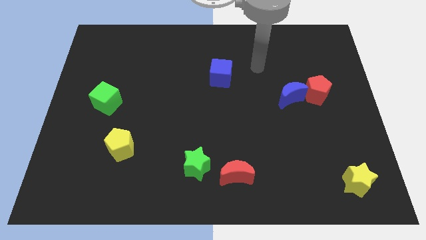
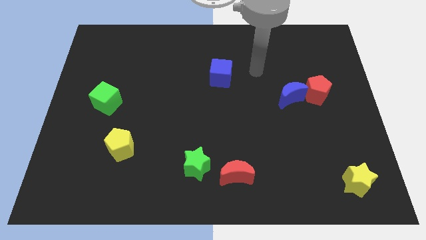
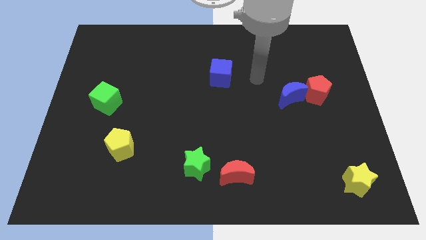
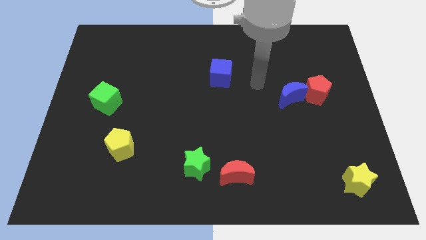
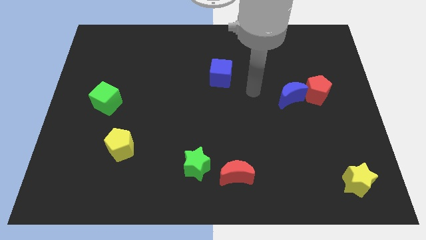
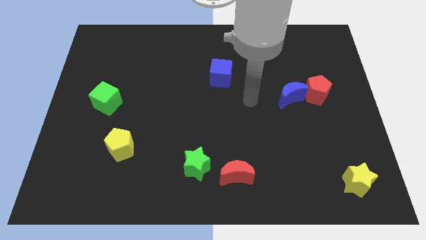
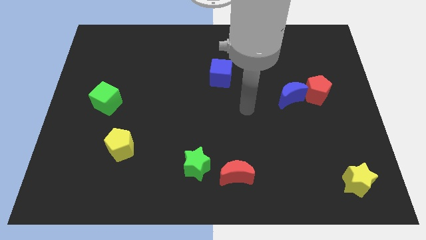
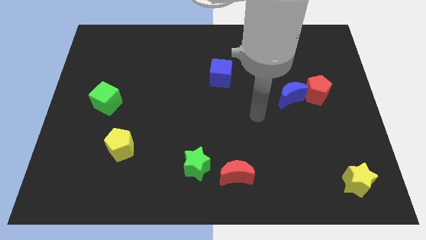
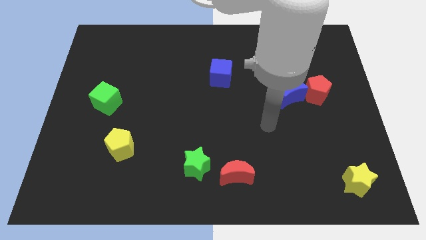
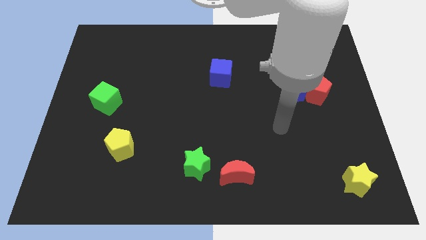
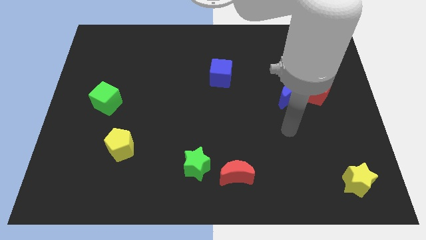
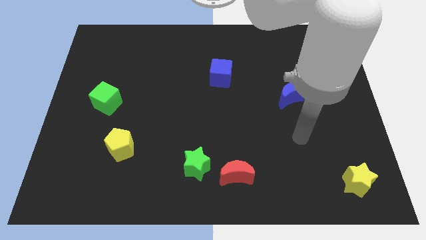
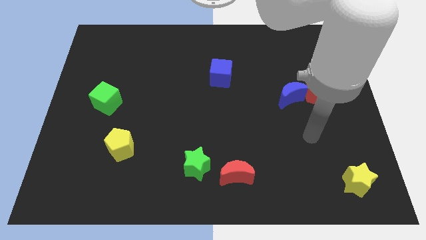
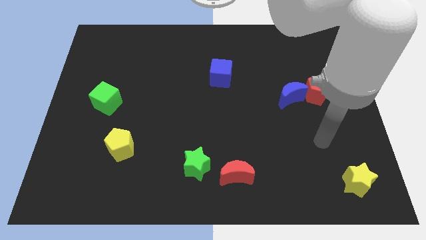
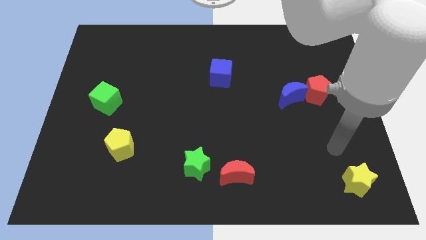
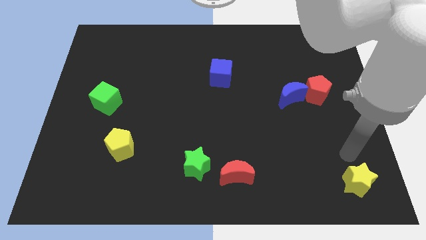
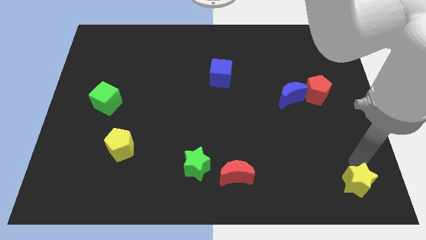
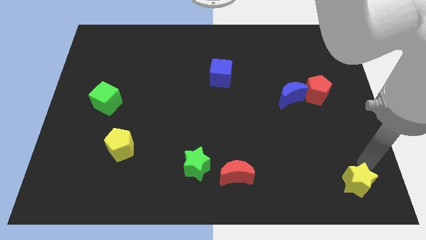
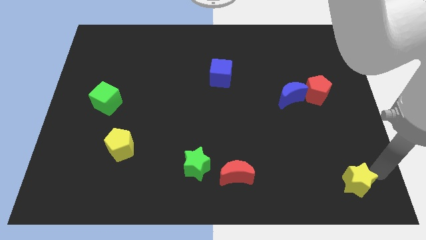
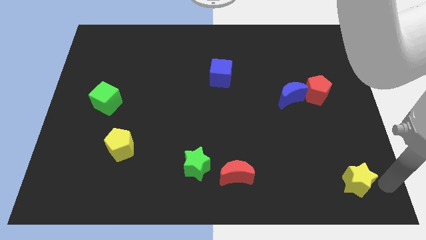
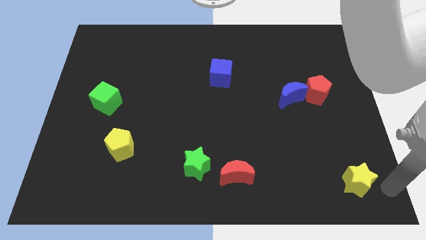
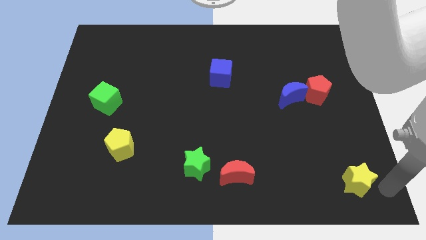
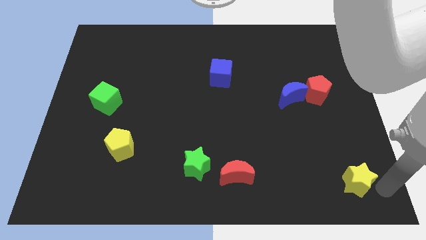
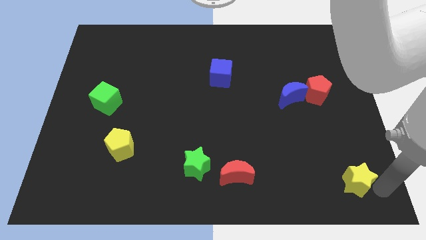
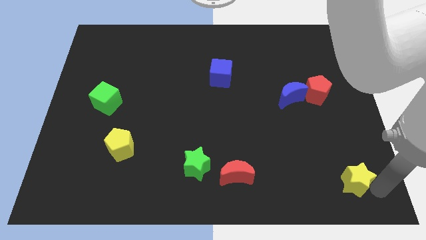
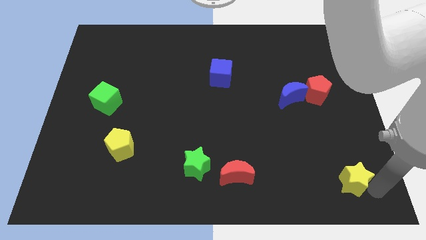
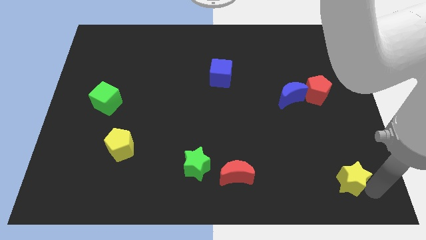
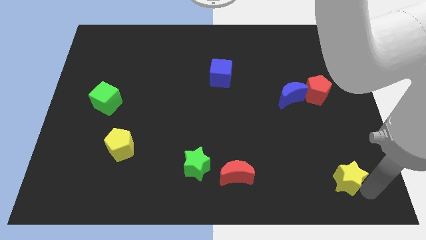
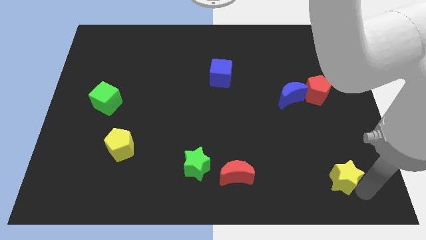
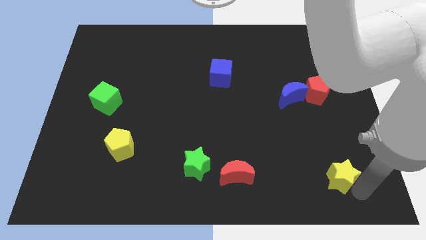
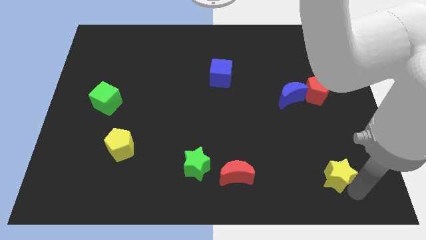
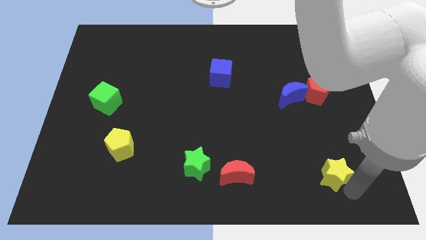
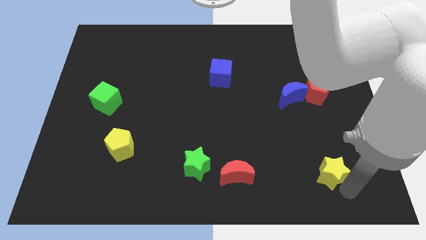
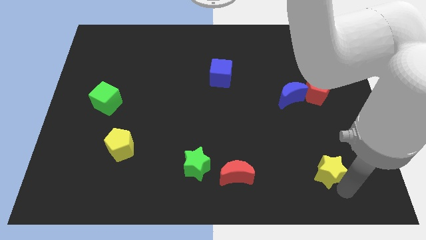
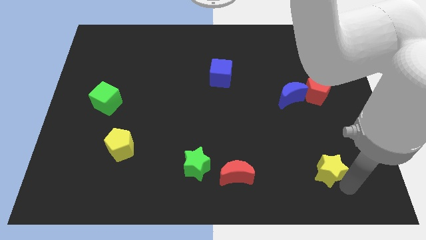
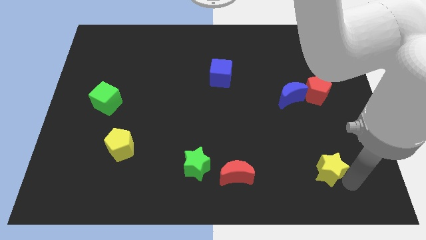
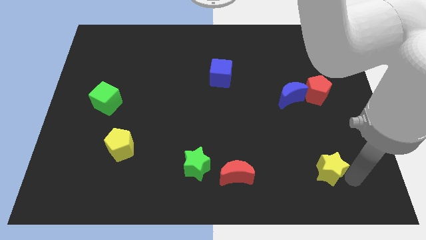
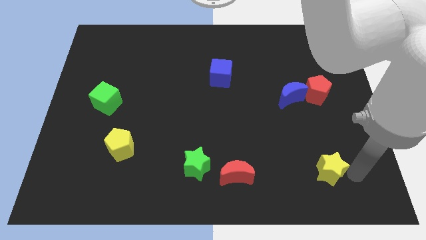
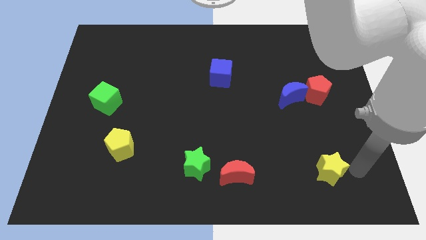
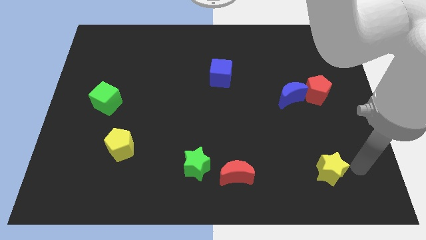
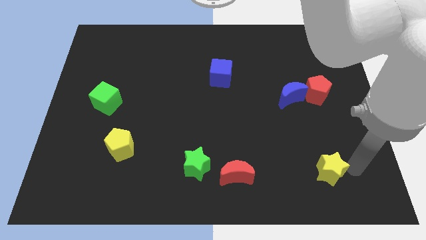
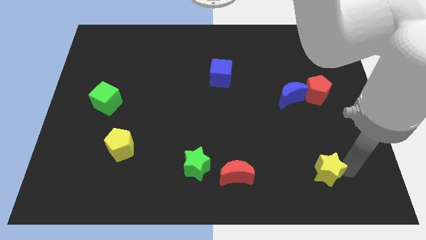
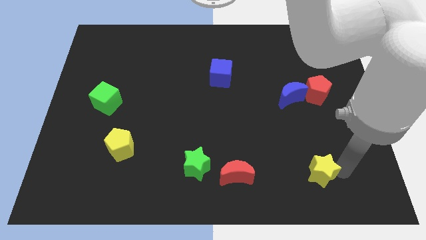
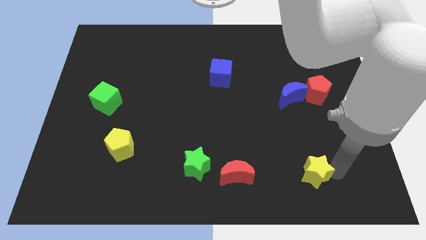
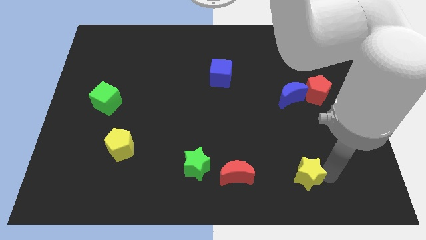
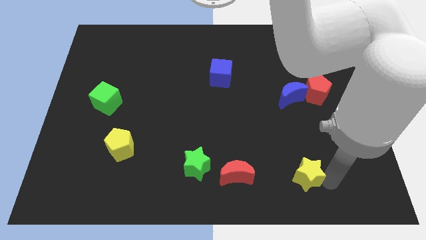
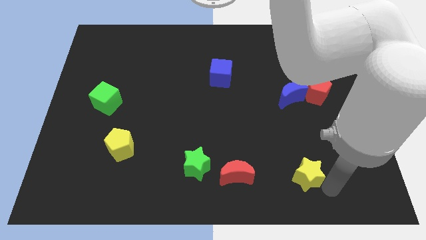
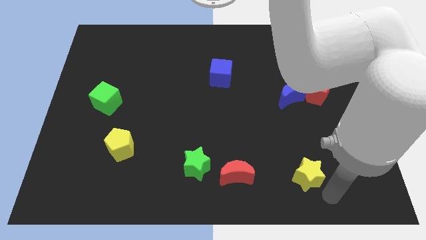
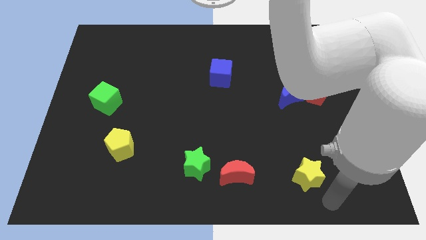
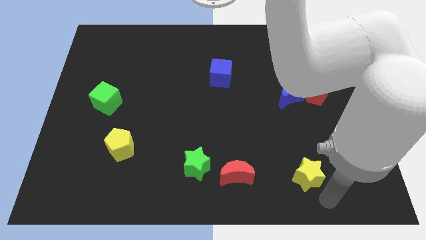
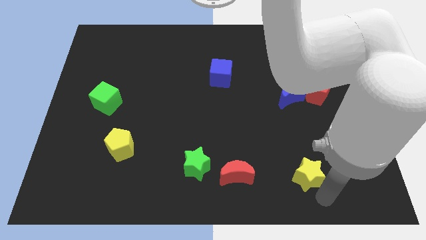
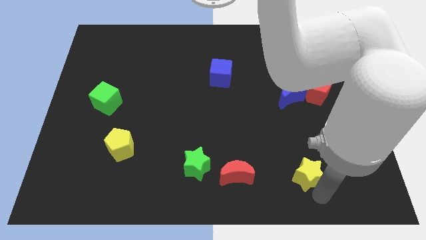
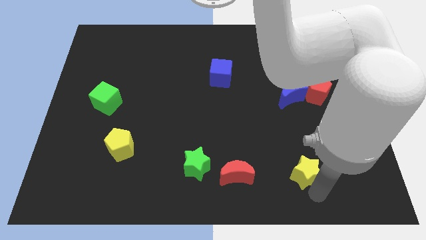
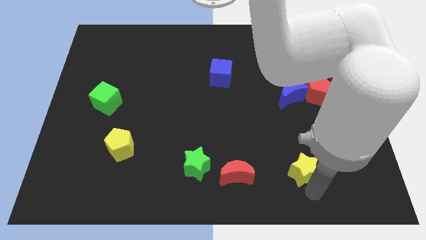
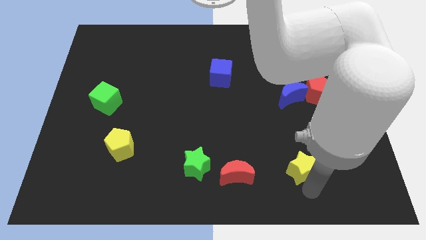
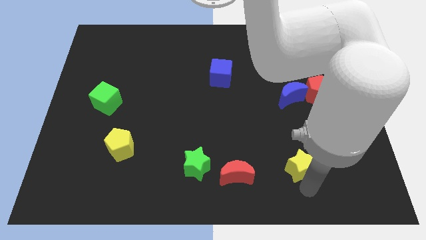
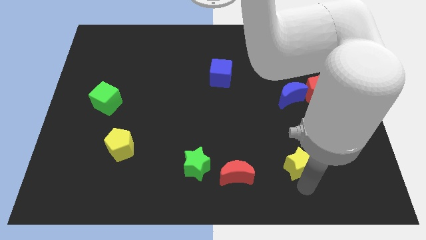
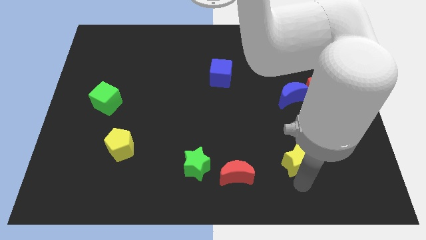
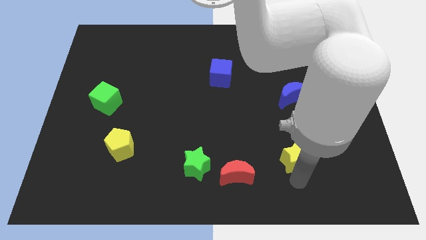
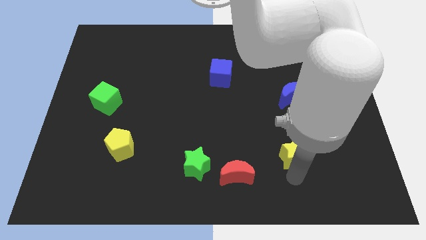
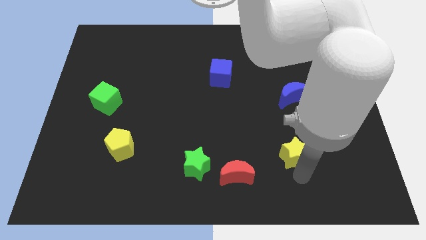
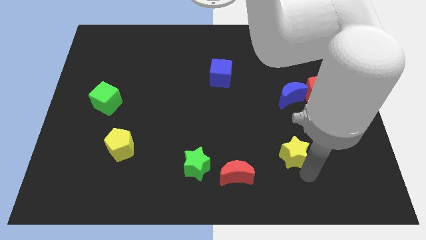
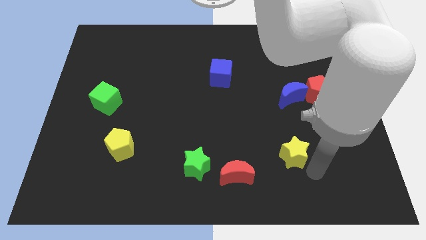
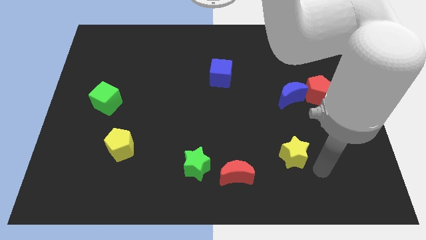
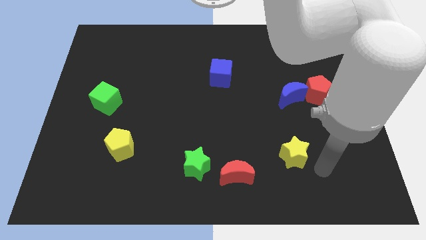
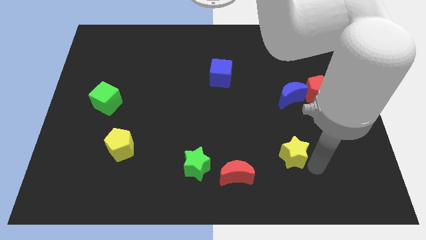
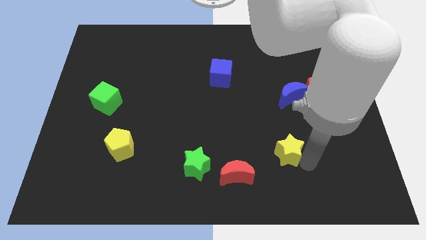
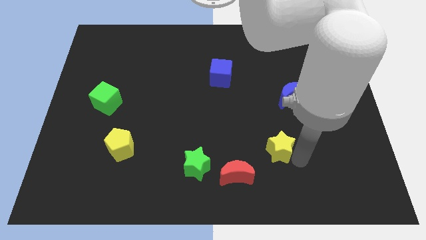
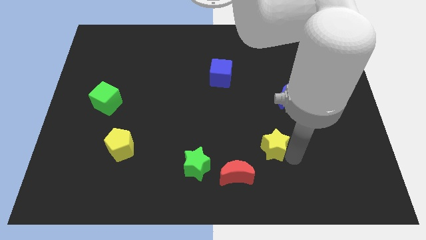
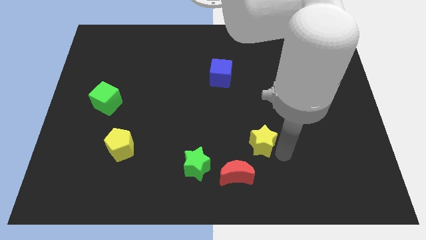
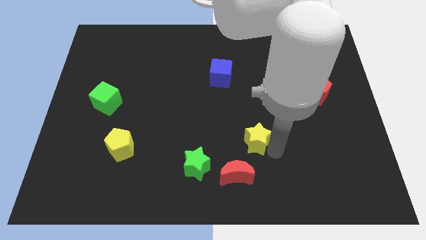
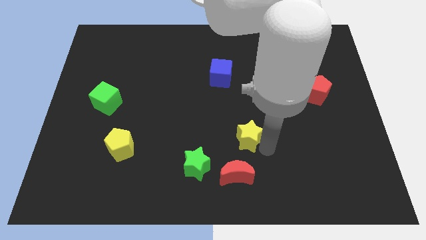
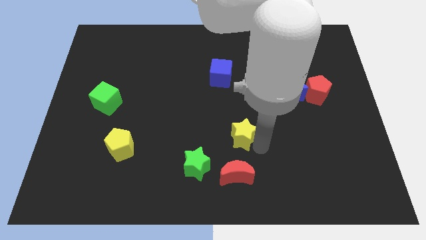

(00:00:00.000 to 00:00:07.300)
slide the yellow star to the middle of the board

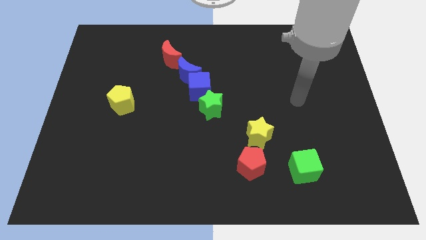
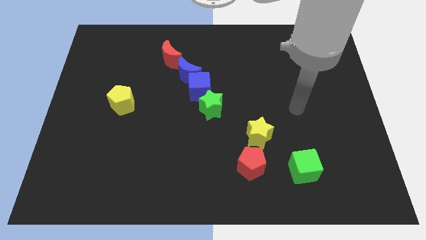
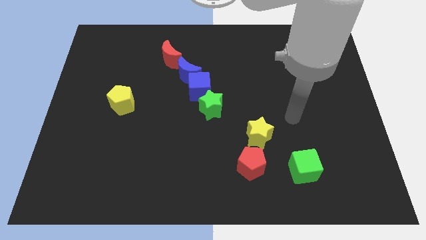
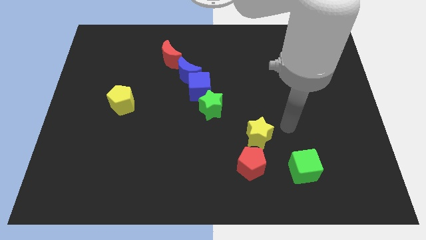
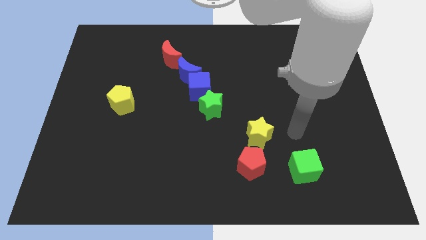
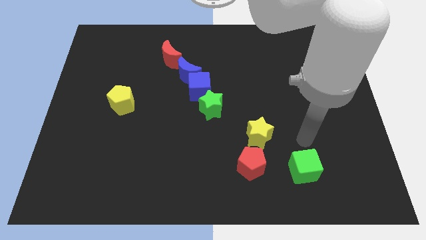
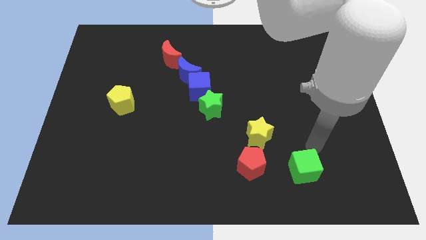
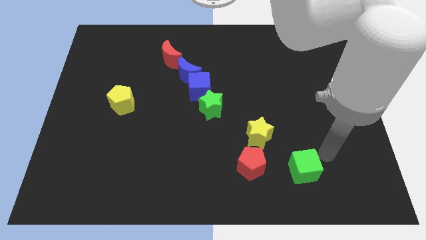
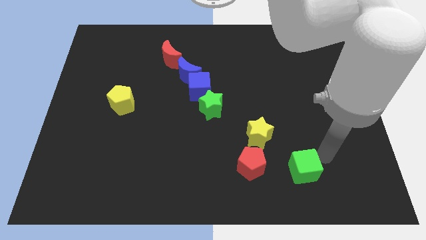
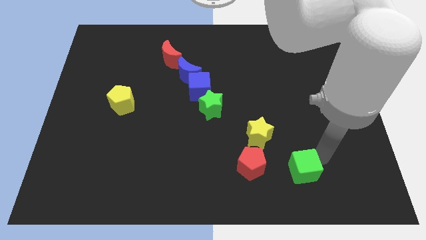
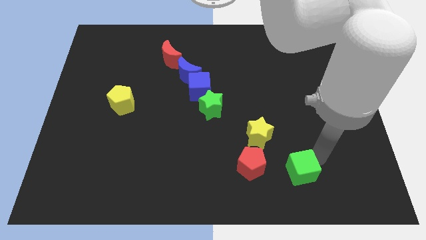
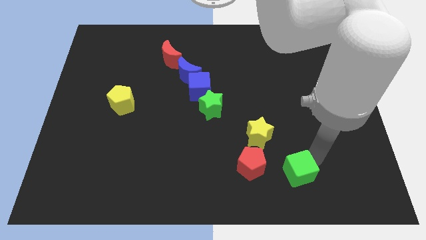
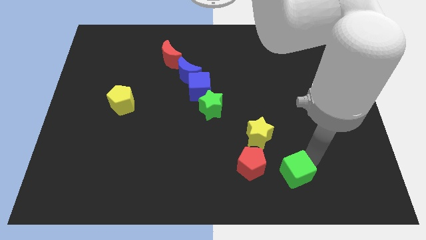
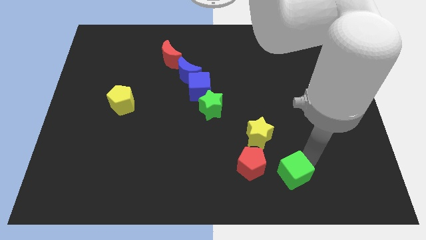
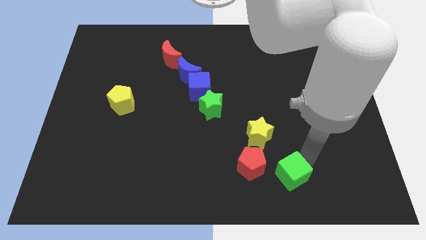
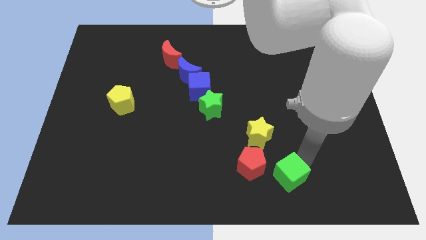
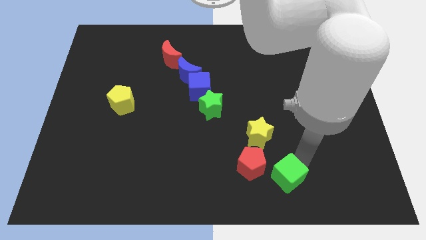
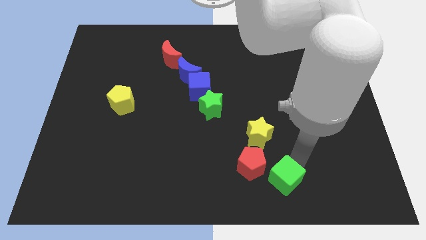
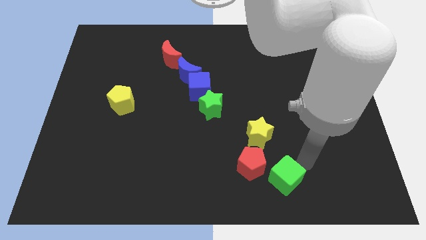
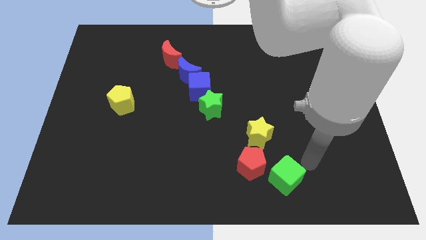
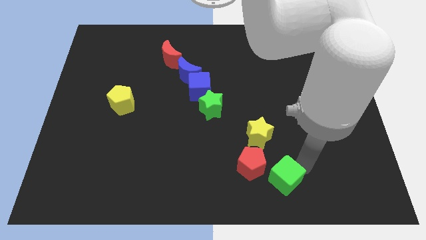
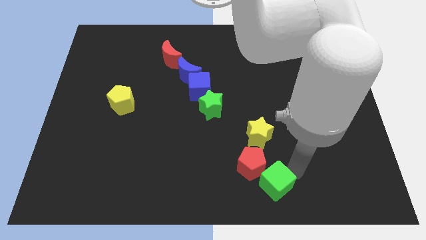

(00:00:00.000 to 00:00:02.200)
slide the green cube to the bottom side
